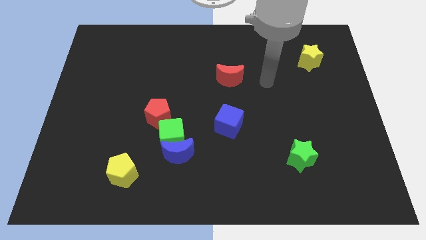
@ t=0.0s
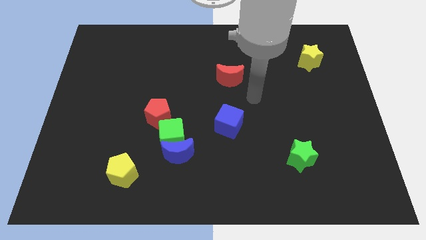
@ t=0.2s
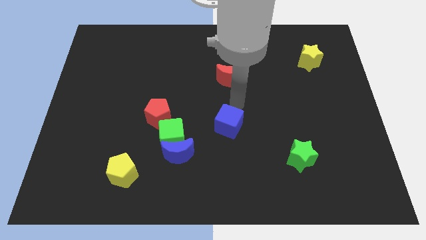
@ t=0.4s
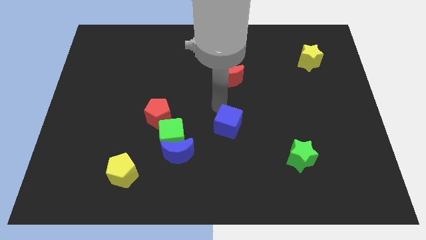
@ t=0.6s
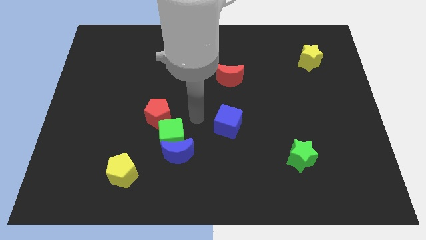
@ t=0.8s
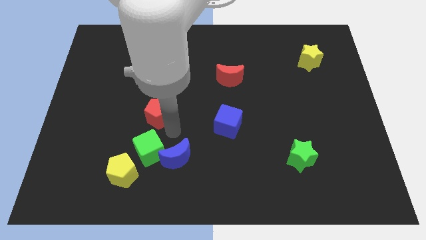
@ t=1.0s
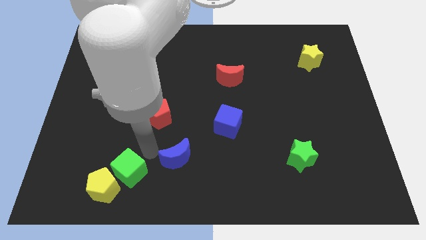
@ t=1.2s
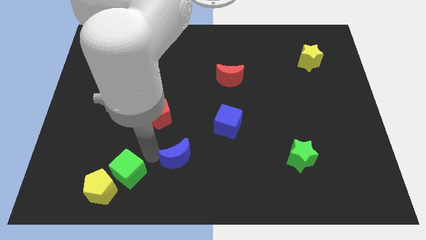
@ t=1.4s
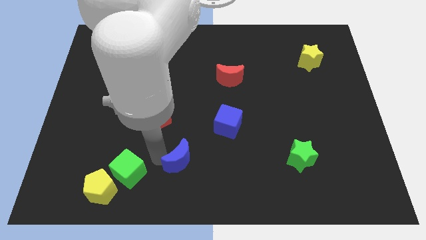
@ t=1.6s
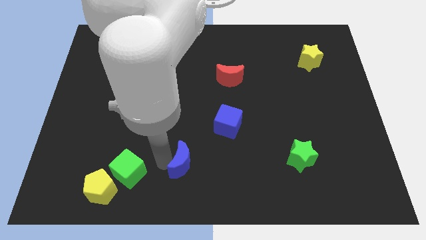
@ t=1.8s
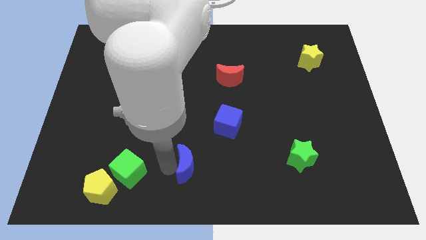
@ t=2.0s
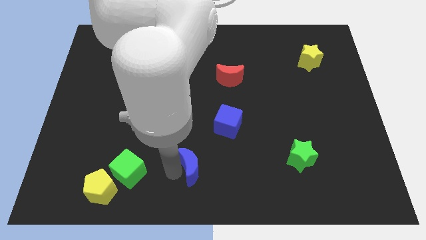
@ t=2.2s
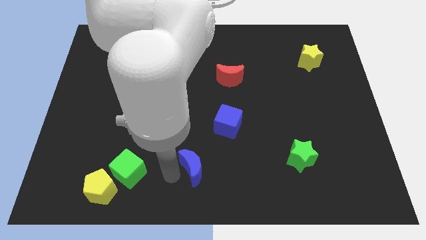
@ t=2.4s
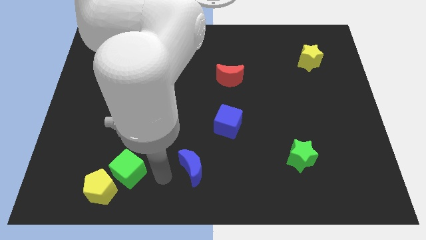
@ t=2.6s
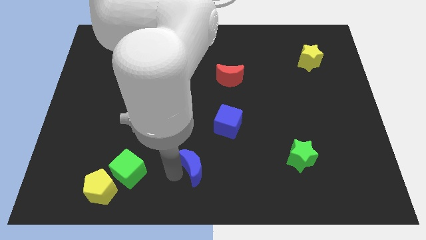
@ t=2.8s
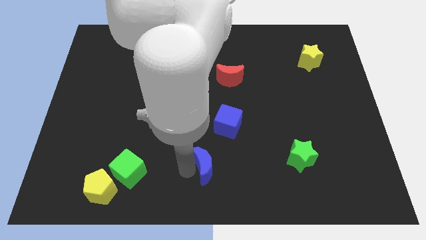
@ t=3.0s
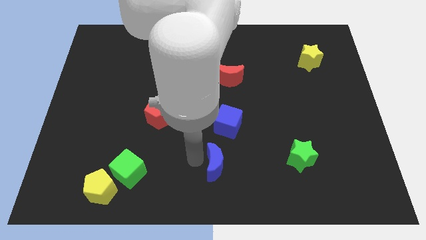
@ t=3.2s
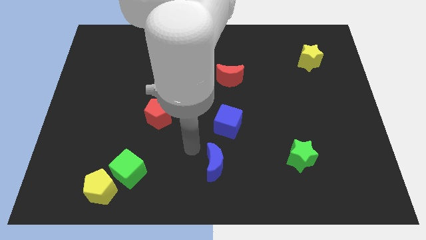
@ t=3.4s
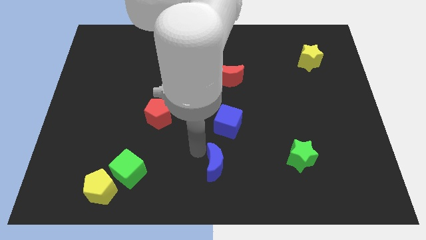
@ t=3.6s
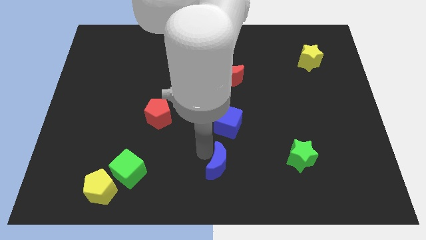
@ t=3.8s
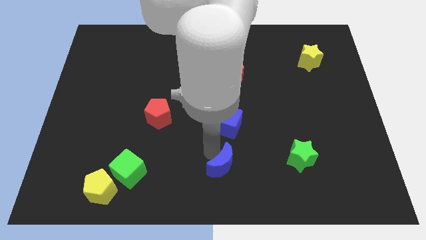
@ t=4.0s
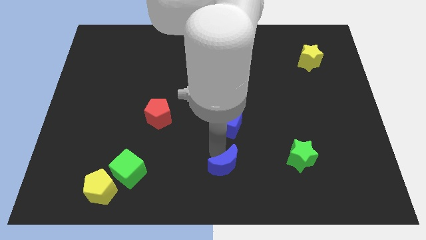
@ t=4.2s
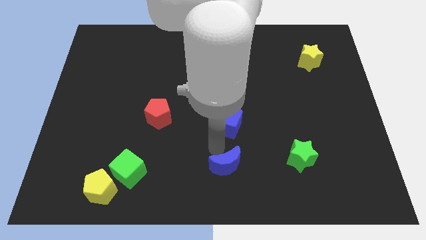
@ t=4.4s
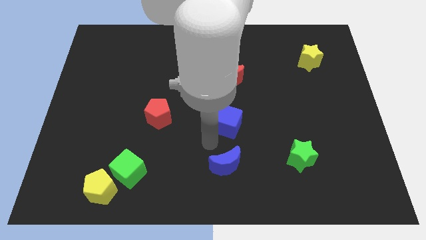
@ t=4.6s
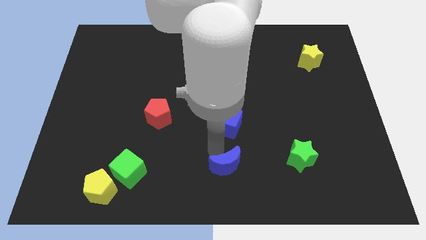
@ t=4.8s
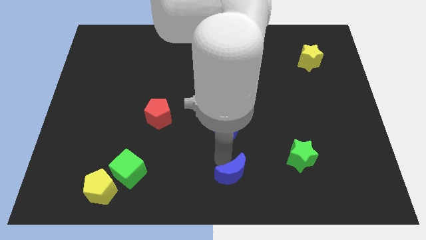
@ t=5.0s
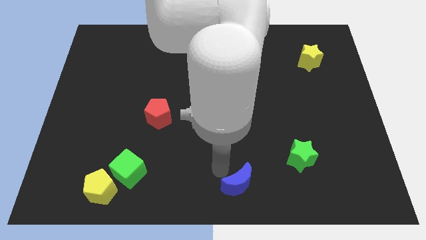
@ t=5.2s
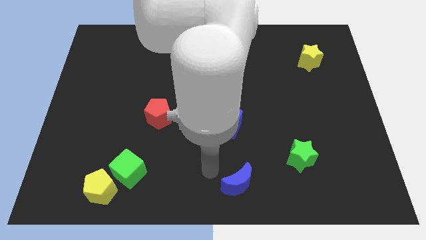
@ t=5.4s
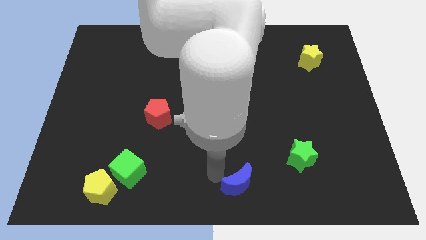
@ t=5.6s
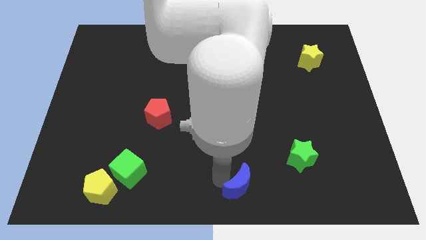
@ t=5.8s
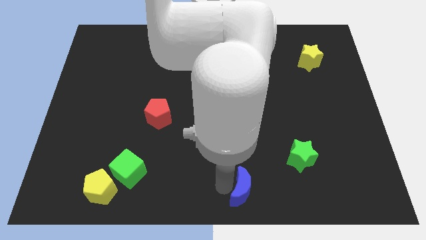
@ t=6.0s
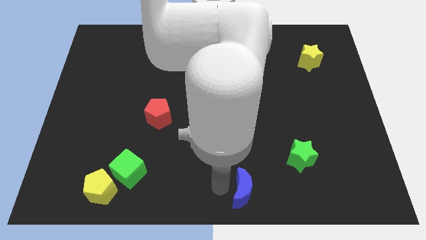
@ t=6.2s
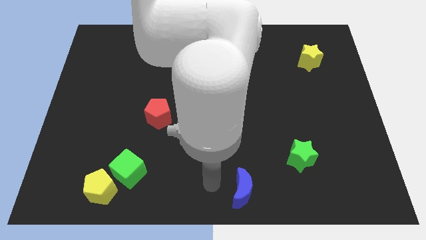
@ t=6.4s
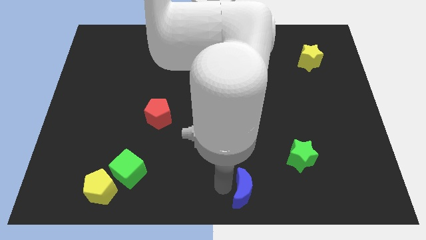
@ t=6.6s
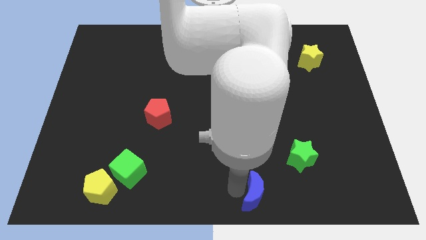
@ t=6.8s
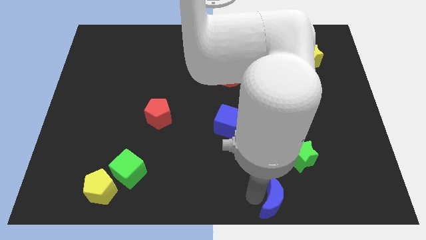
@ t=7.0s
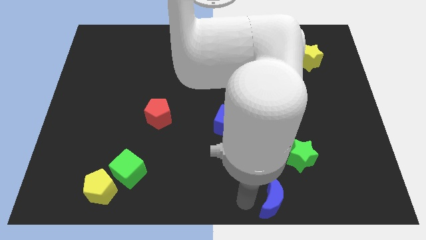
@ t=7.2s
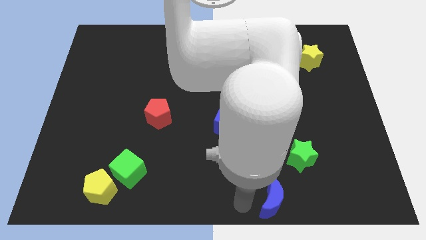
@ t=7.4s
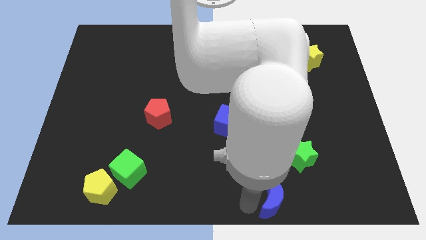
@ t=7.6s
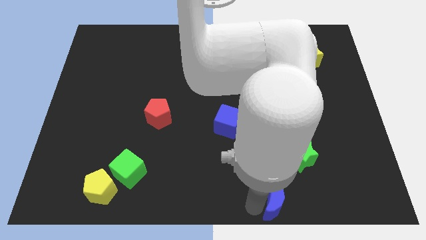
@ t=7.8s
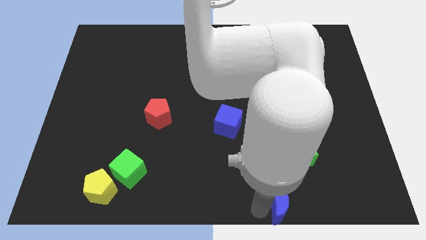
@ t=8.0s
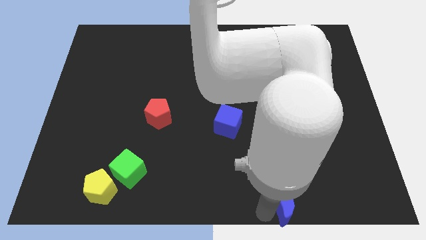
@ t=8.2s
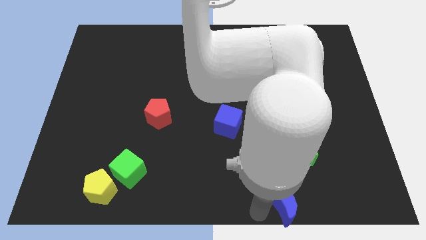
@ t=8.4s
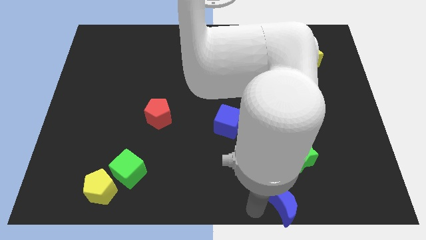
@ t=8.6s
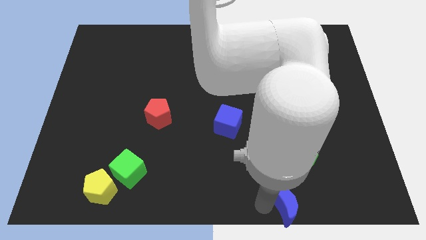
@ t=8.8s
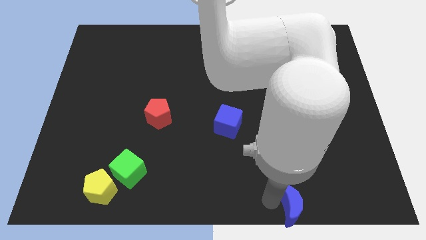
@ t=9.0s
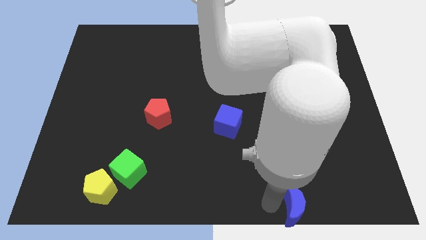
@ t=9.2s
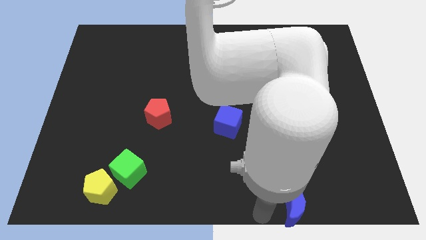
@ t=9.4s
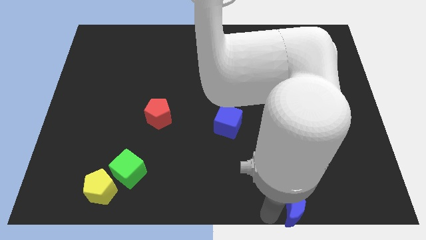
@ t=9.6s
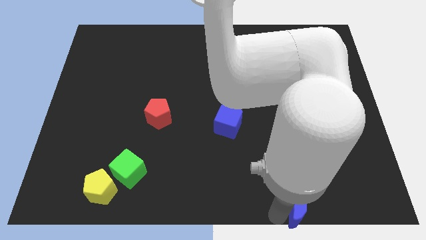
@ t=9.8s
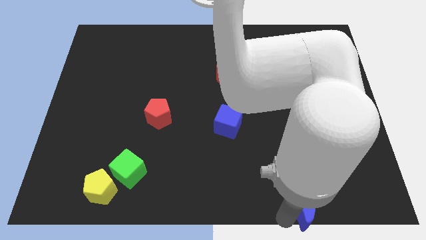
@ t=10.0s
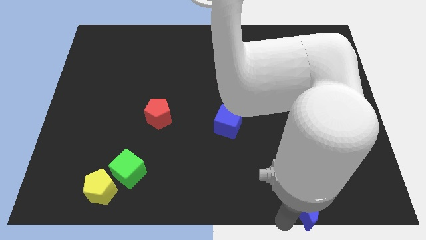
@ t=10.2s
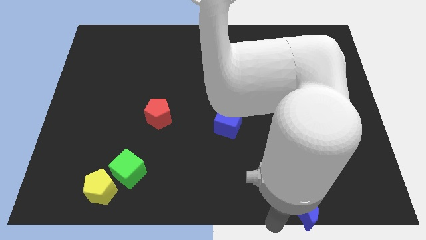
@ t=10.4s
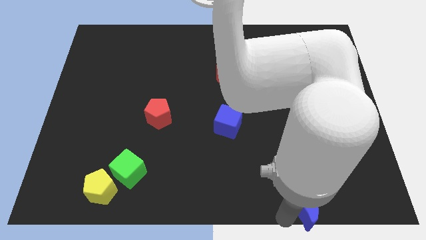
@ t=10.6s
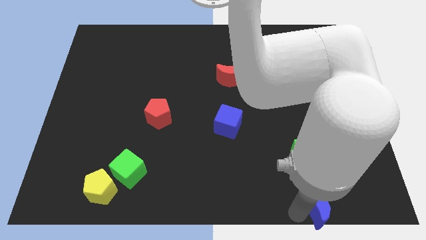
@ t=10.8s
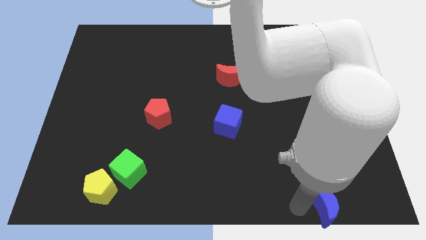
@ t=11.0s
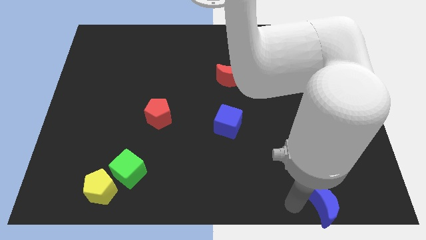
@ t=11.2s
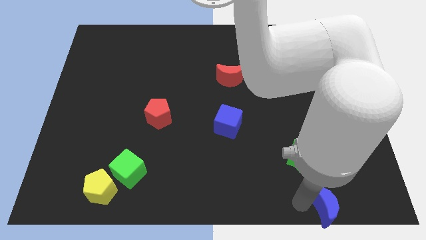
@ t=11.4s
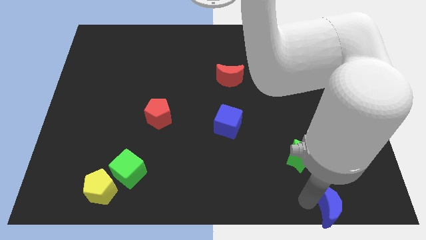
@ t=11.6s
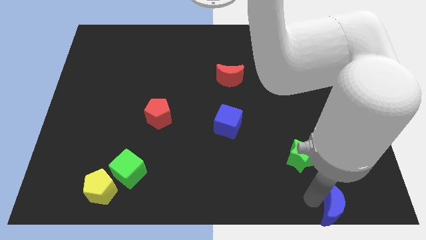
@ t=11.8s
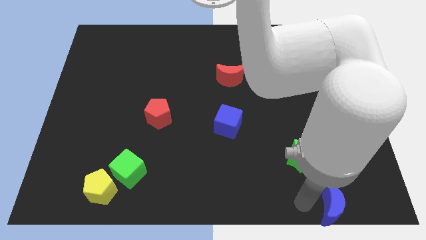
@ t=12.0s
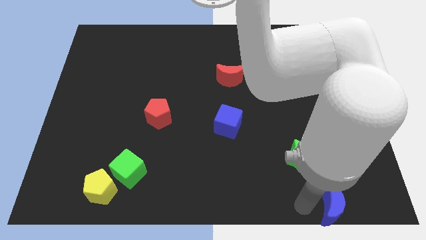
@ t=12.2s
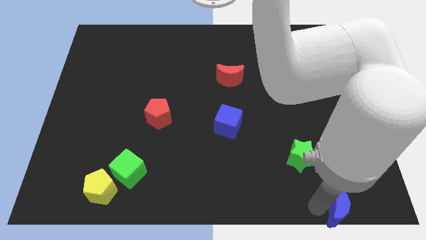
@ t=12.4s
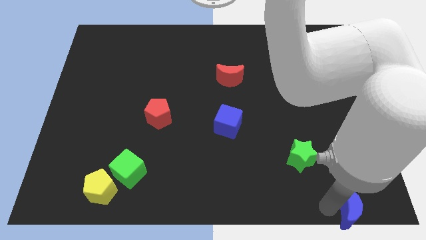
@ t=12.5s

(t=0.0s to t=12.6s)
slide the blue moon to the bottom right

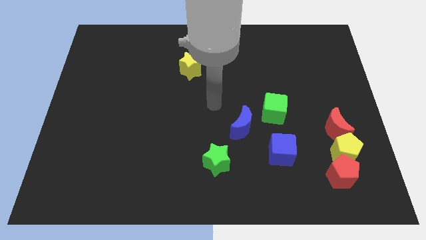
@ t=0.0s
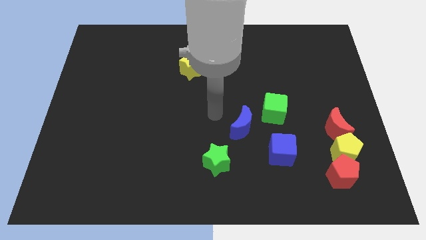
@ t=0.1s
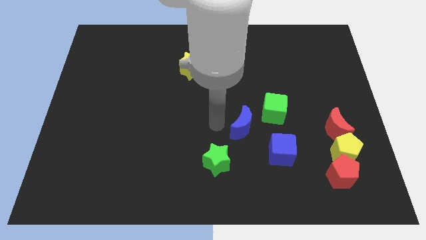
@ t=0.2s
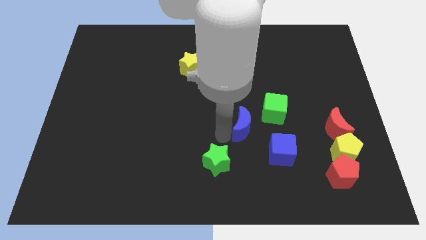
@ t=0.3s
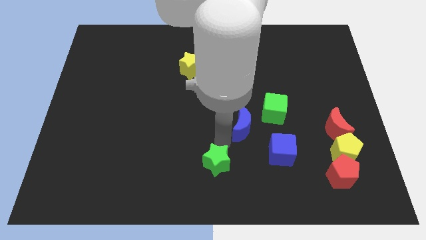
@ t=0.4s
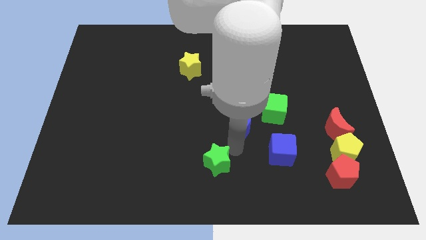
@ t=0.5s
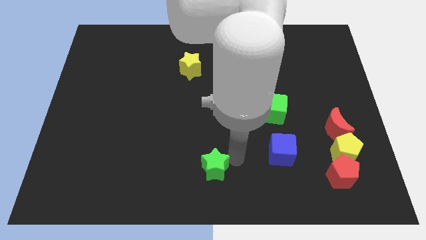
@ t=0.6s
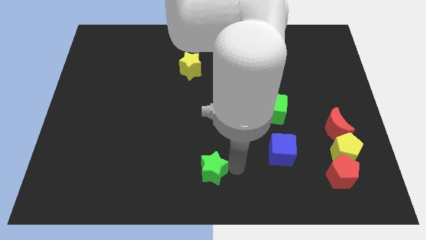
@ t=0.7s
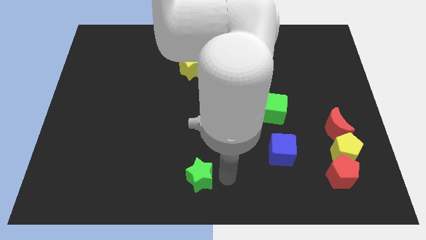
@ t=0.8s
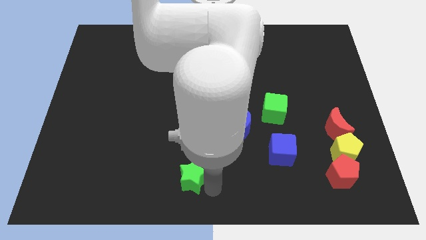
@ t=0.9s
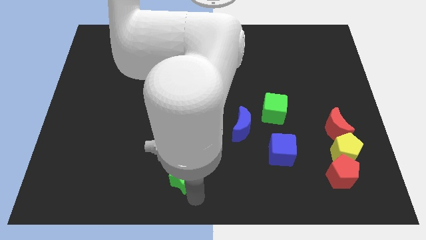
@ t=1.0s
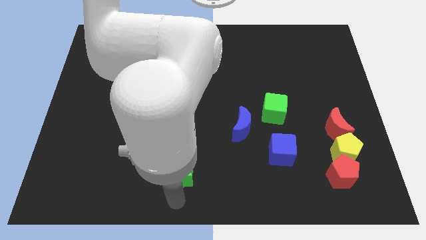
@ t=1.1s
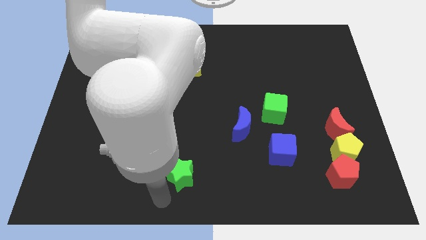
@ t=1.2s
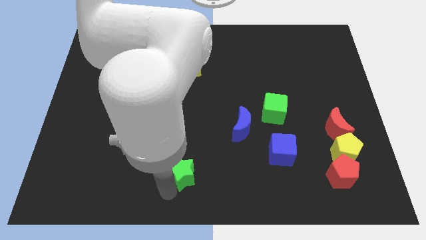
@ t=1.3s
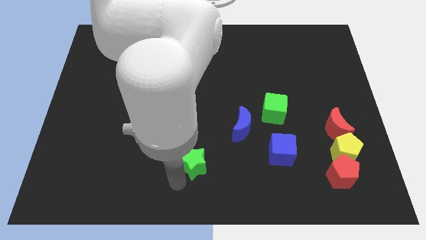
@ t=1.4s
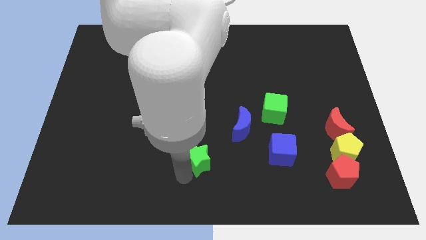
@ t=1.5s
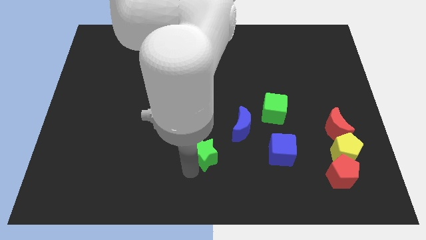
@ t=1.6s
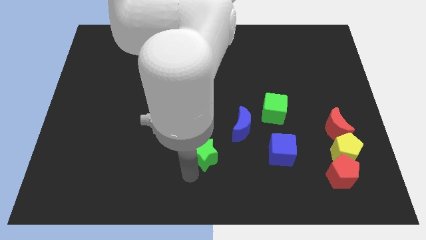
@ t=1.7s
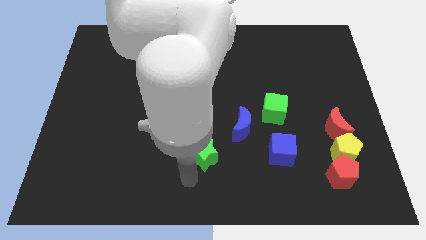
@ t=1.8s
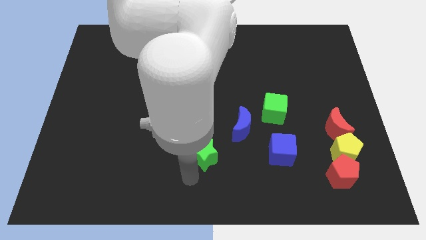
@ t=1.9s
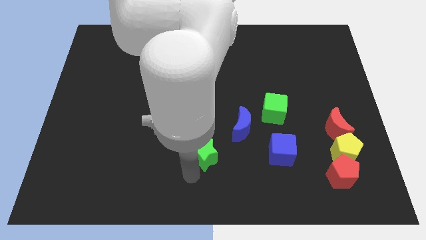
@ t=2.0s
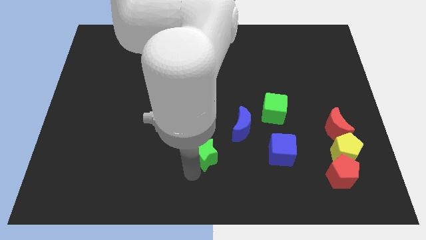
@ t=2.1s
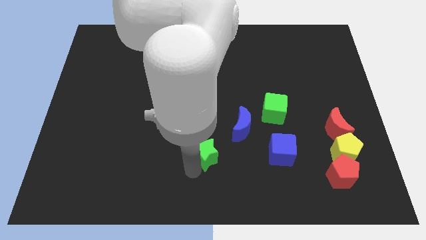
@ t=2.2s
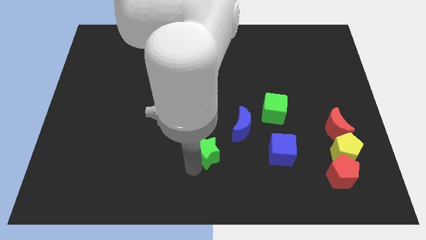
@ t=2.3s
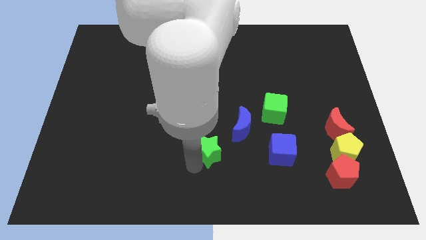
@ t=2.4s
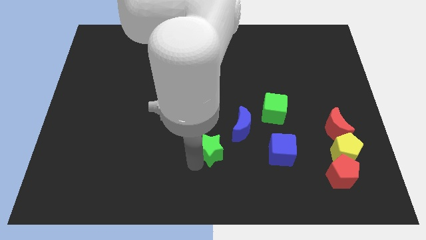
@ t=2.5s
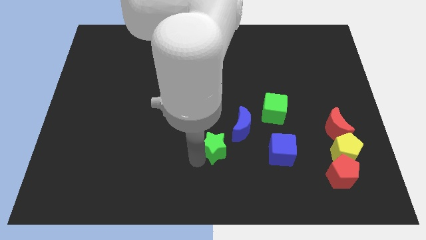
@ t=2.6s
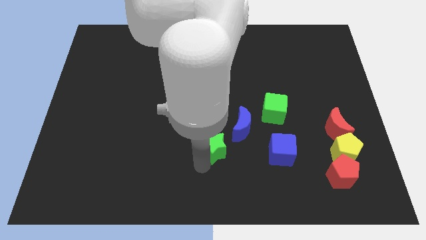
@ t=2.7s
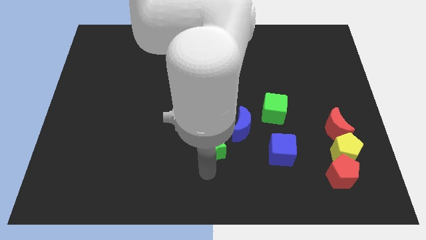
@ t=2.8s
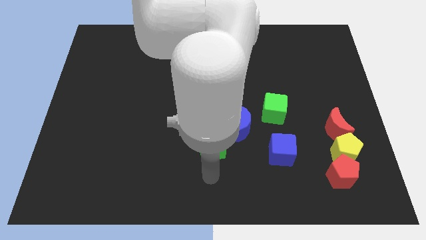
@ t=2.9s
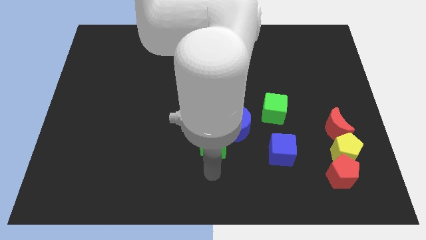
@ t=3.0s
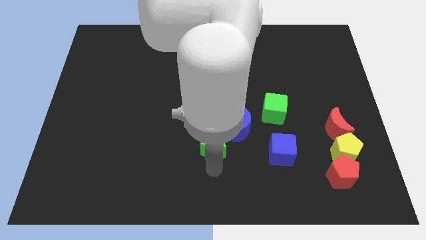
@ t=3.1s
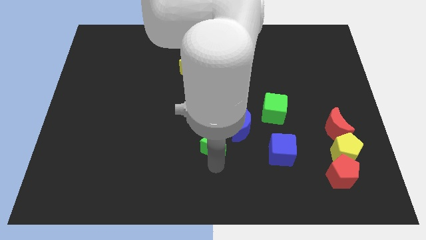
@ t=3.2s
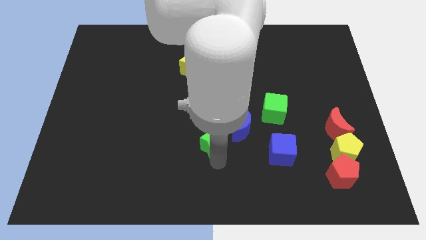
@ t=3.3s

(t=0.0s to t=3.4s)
put the green star to the middle of the board
